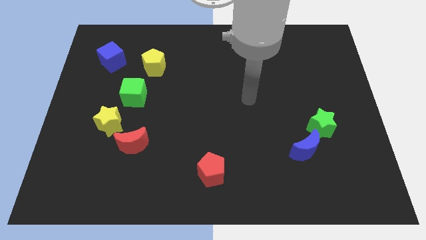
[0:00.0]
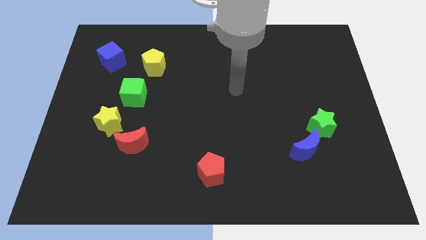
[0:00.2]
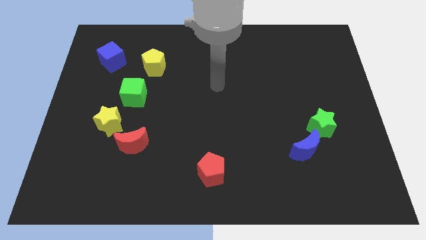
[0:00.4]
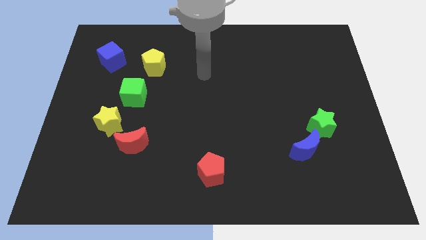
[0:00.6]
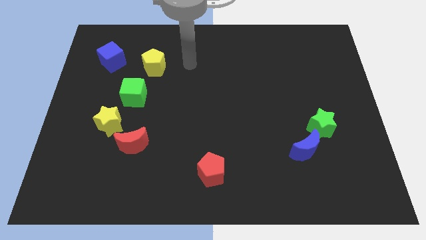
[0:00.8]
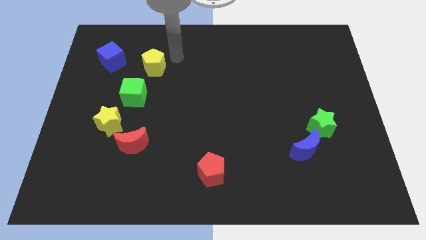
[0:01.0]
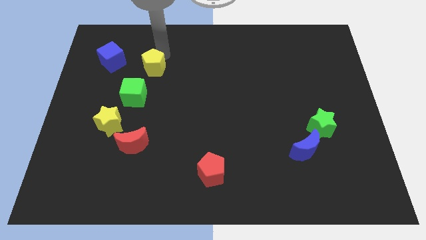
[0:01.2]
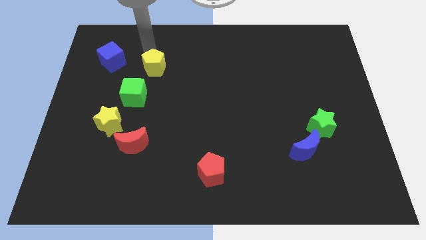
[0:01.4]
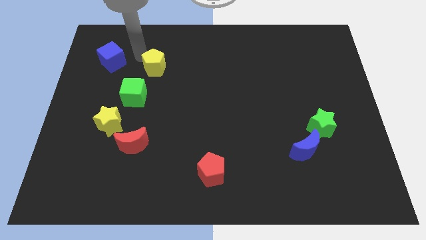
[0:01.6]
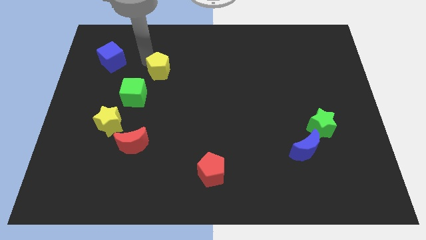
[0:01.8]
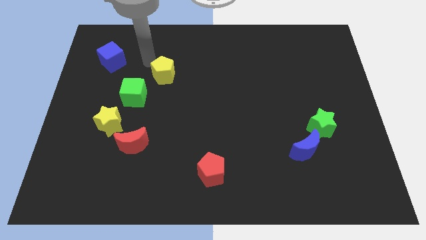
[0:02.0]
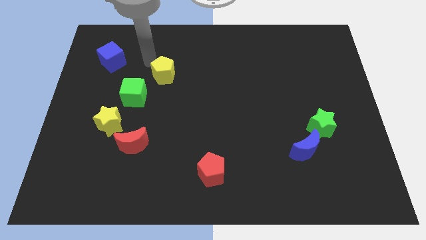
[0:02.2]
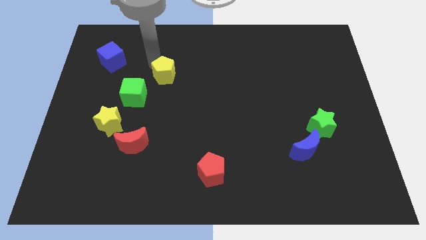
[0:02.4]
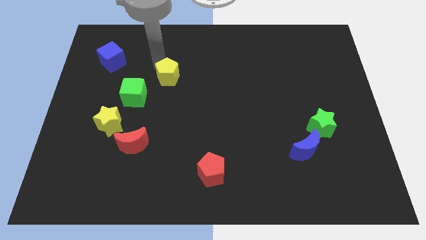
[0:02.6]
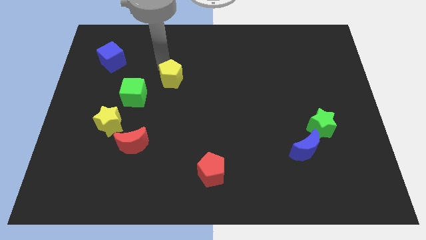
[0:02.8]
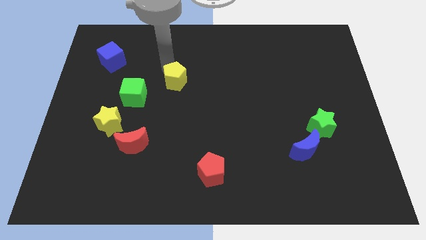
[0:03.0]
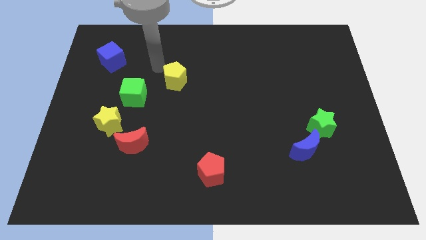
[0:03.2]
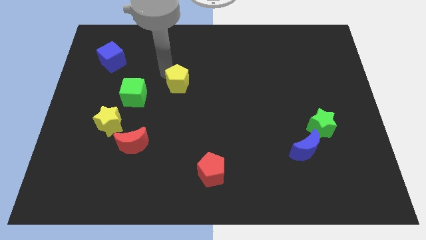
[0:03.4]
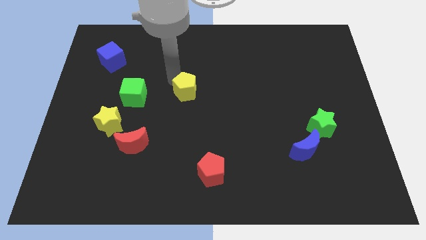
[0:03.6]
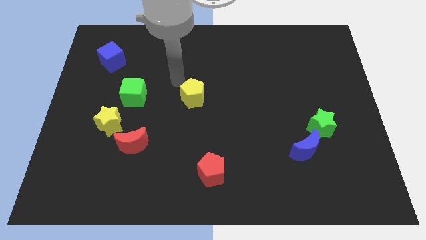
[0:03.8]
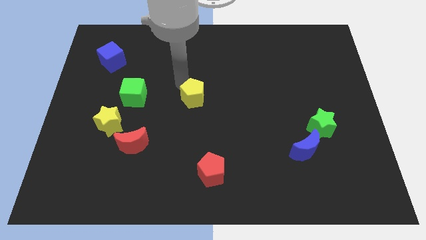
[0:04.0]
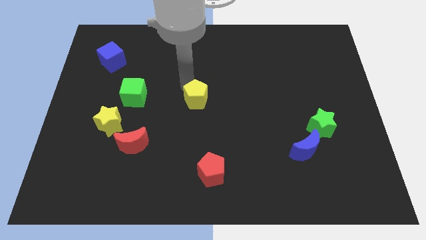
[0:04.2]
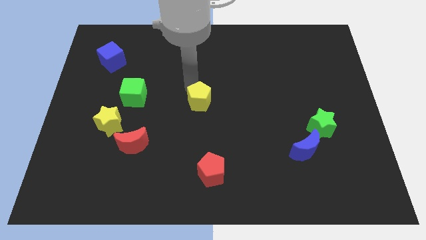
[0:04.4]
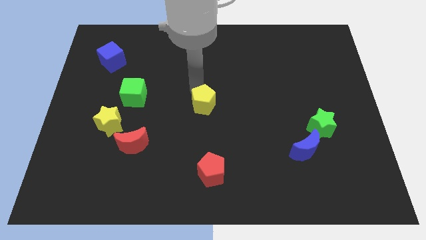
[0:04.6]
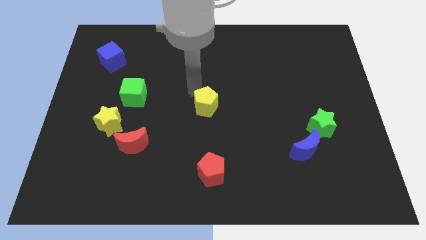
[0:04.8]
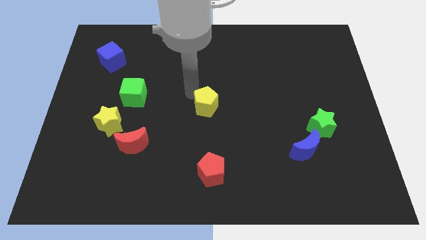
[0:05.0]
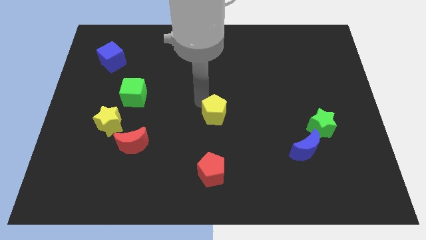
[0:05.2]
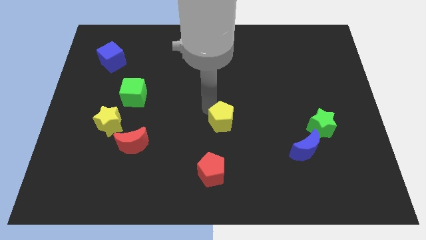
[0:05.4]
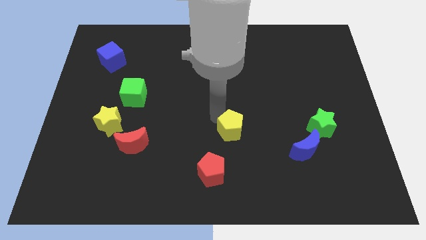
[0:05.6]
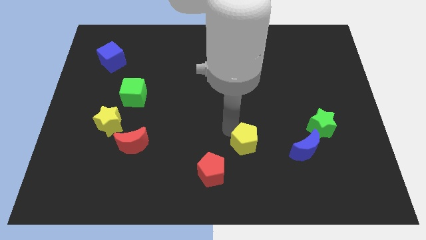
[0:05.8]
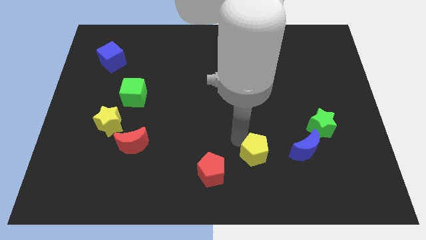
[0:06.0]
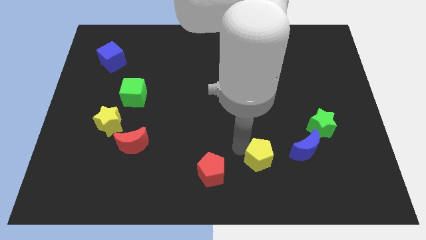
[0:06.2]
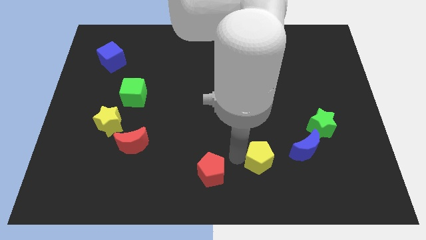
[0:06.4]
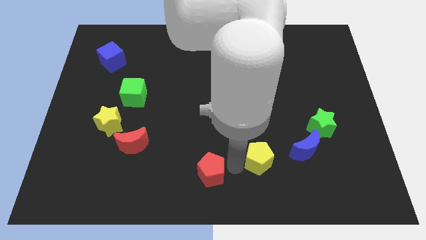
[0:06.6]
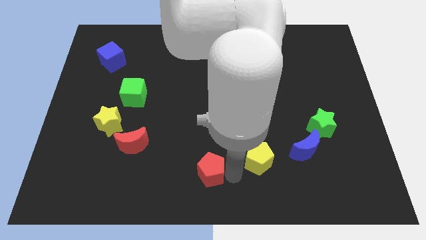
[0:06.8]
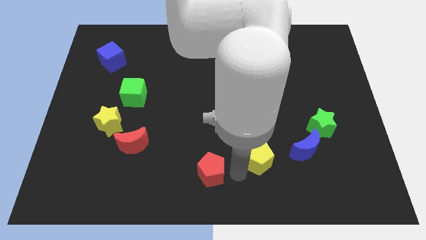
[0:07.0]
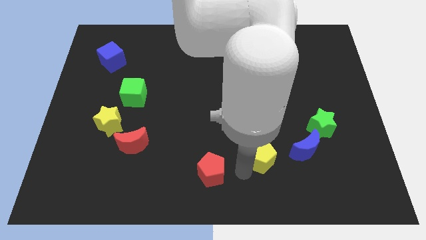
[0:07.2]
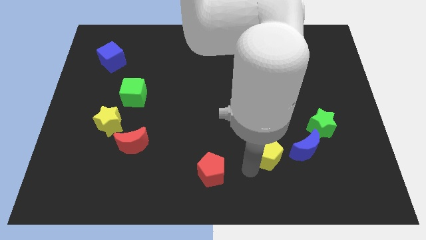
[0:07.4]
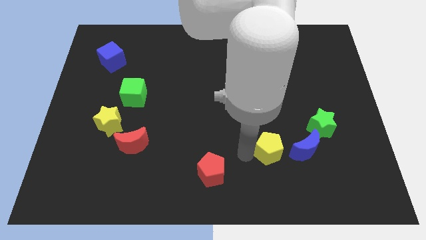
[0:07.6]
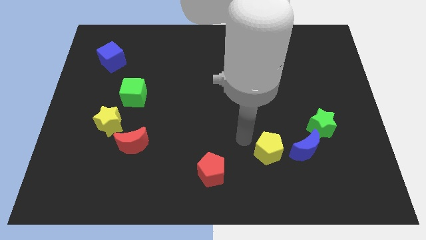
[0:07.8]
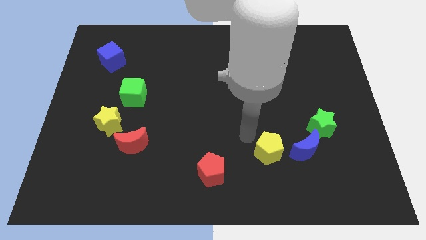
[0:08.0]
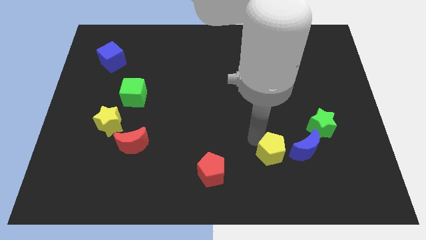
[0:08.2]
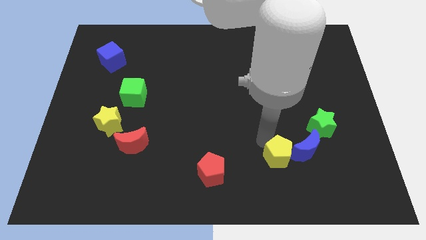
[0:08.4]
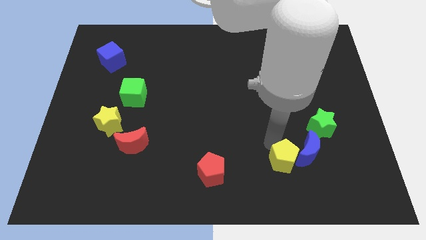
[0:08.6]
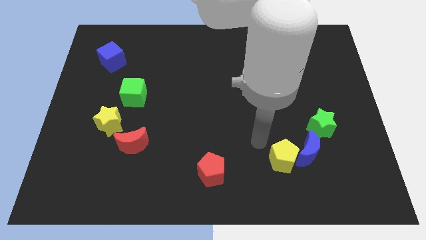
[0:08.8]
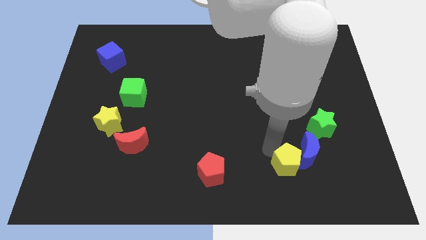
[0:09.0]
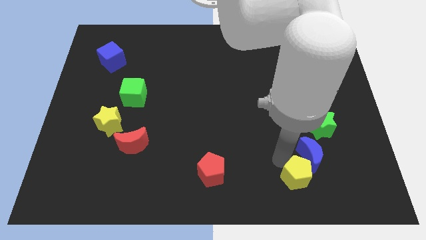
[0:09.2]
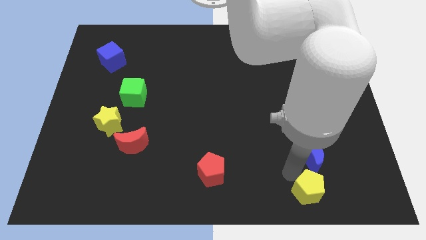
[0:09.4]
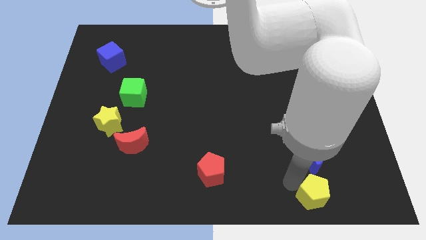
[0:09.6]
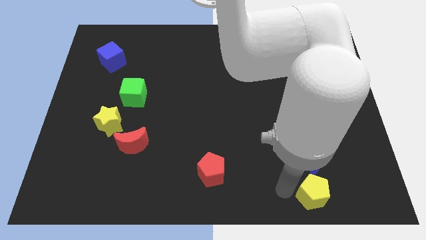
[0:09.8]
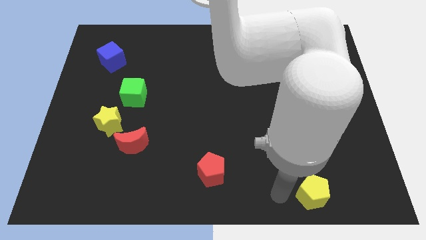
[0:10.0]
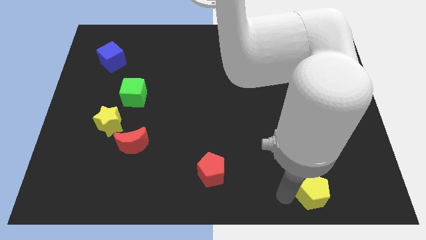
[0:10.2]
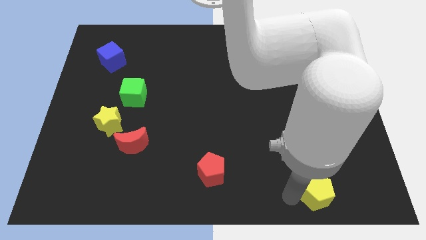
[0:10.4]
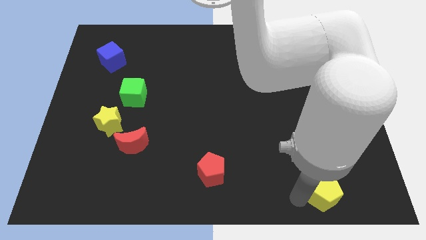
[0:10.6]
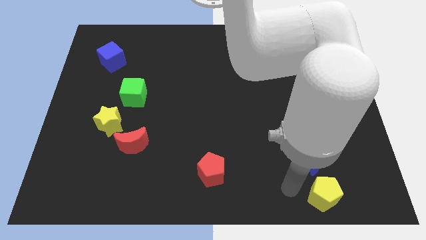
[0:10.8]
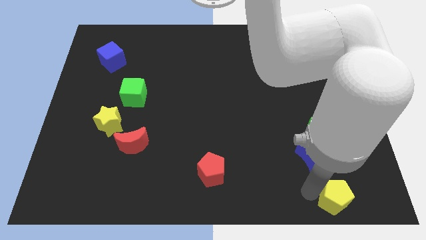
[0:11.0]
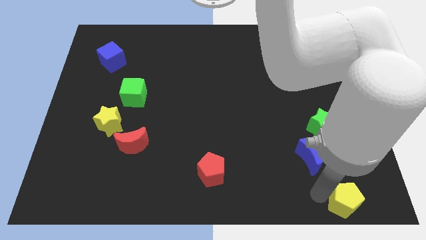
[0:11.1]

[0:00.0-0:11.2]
move the yellow pentagon to the bottom right

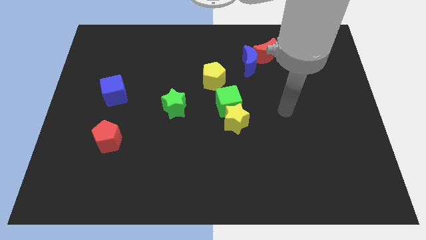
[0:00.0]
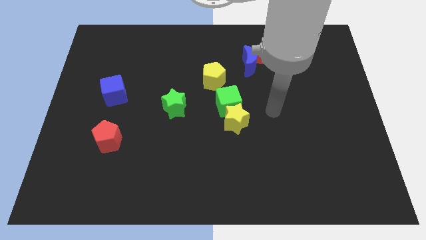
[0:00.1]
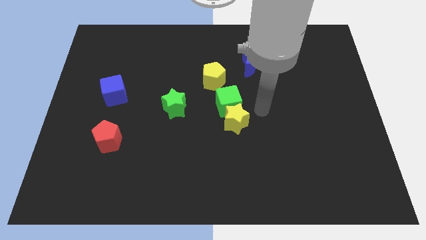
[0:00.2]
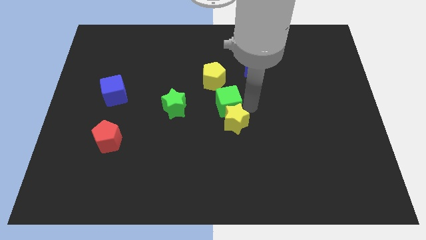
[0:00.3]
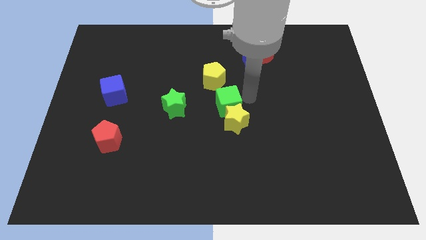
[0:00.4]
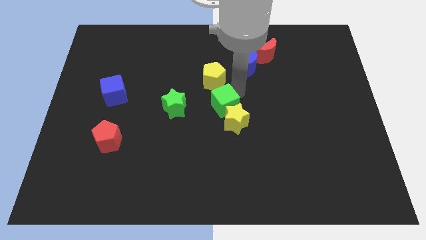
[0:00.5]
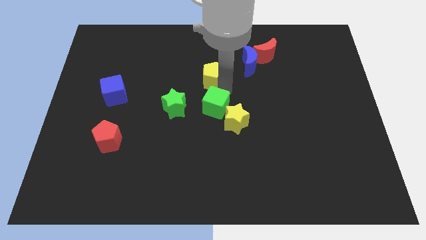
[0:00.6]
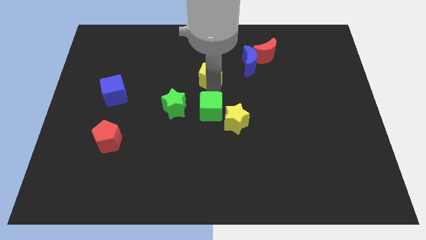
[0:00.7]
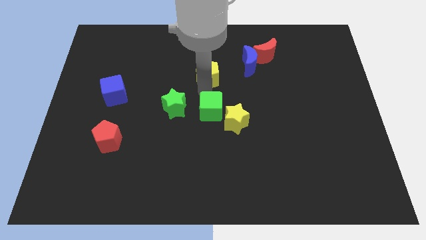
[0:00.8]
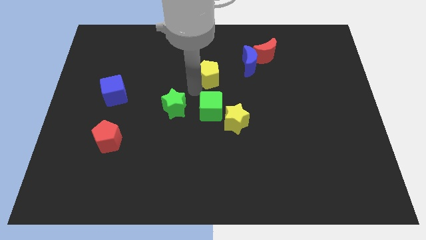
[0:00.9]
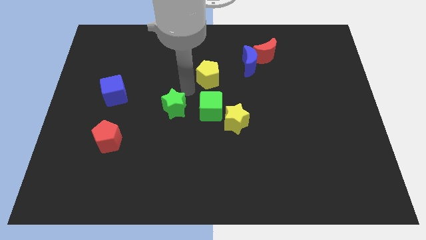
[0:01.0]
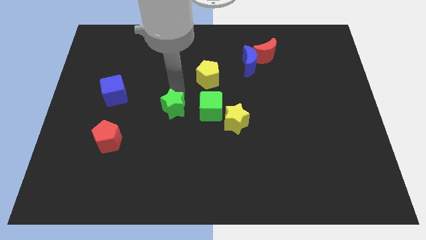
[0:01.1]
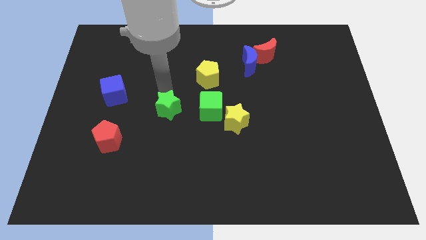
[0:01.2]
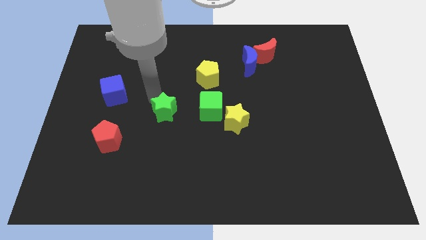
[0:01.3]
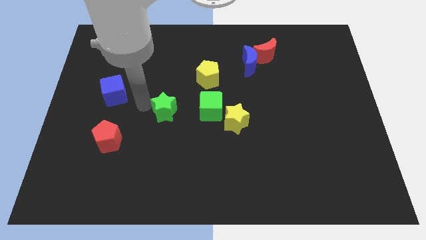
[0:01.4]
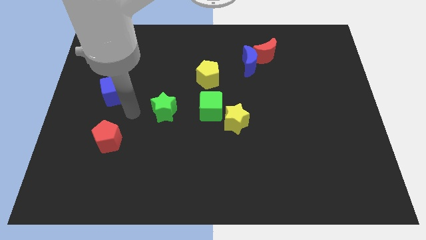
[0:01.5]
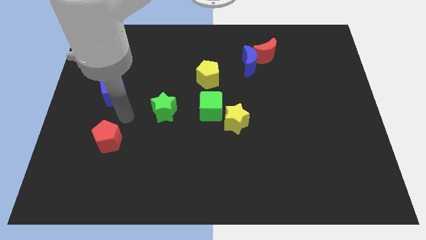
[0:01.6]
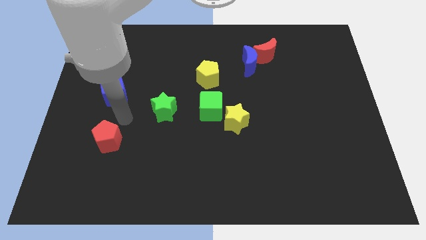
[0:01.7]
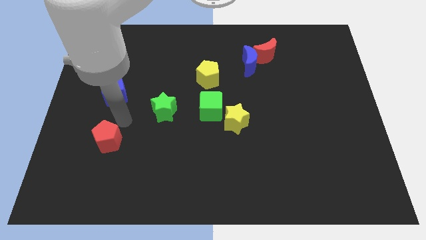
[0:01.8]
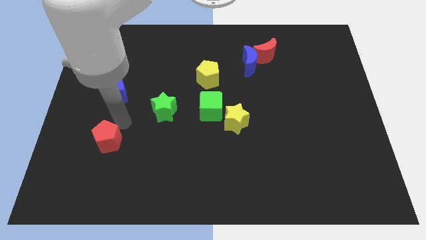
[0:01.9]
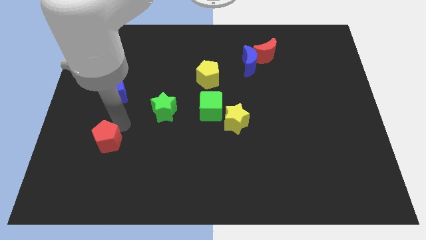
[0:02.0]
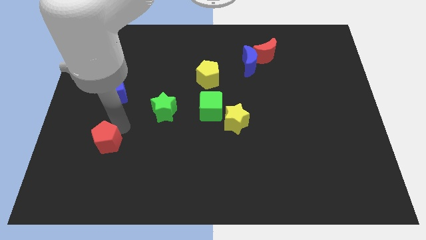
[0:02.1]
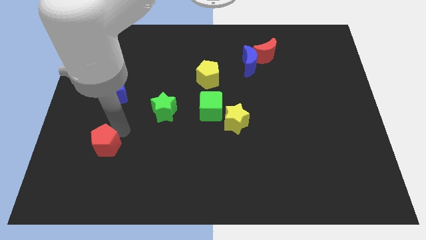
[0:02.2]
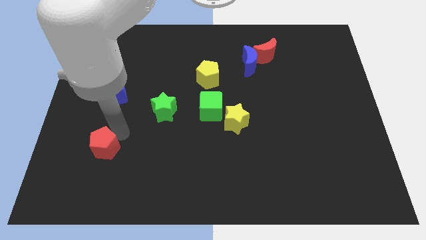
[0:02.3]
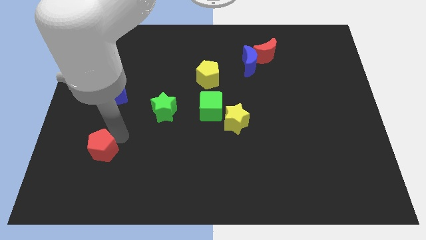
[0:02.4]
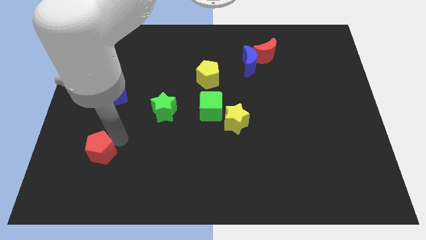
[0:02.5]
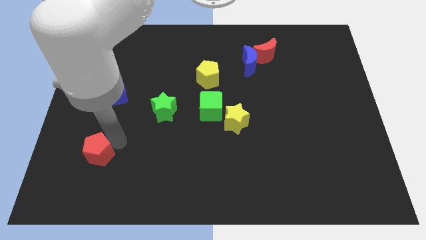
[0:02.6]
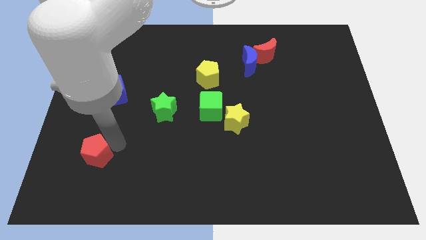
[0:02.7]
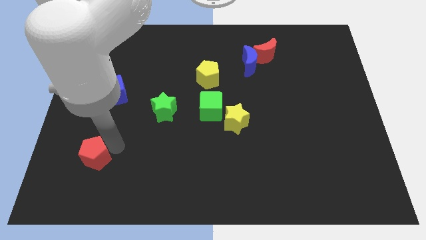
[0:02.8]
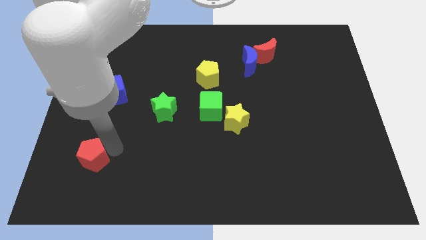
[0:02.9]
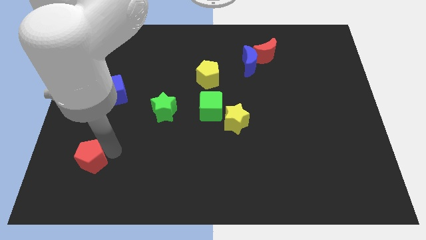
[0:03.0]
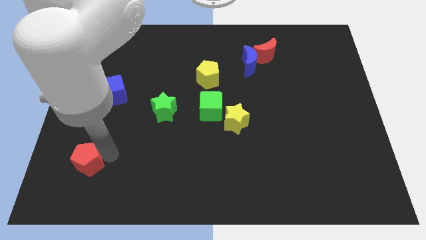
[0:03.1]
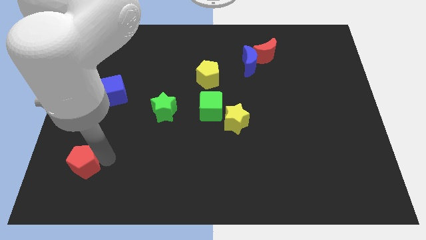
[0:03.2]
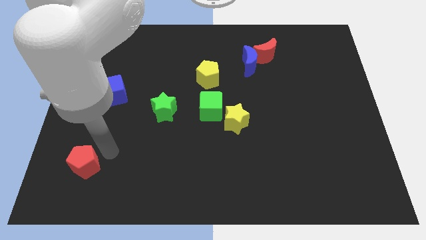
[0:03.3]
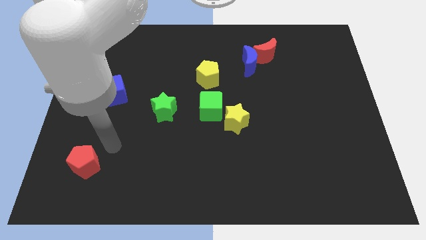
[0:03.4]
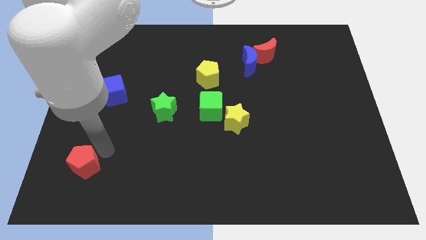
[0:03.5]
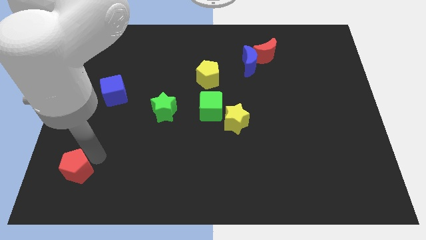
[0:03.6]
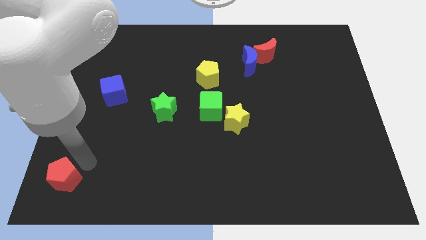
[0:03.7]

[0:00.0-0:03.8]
move the red pentagon to the lower left corner
